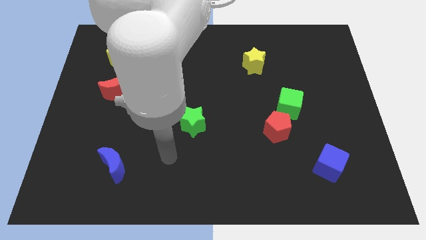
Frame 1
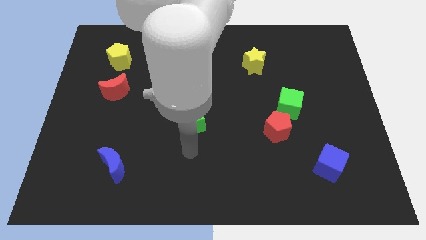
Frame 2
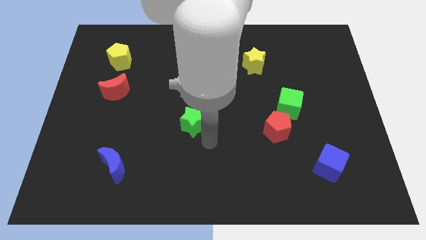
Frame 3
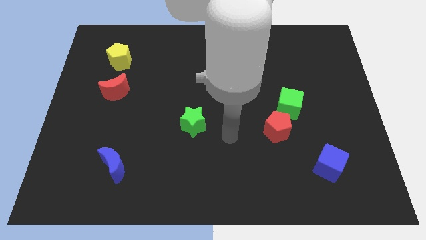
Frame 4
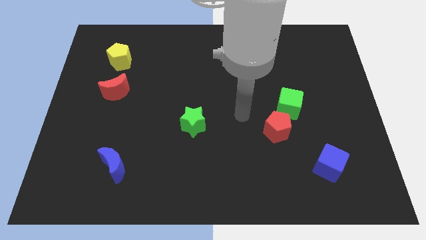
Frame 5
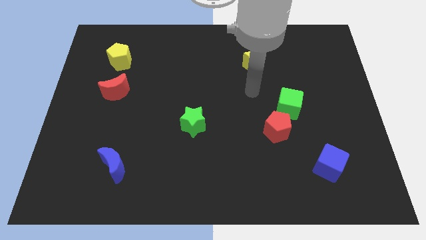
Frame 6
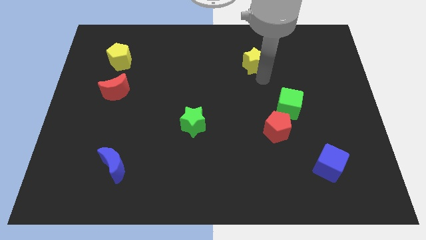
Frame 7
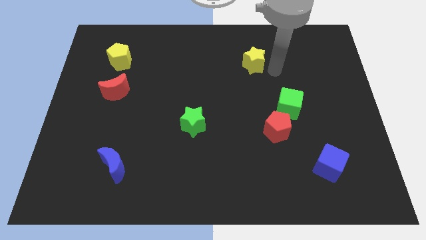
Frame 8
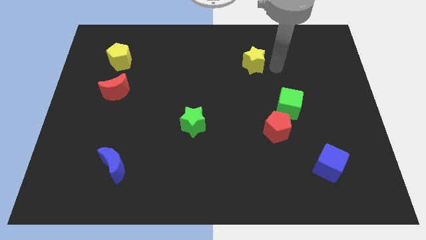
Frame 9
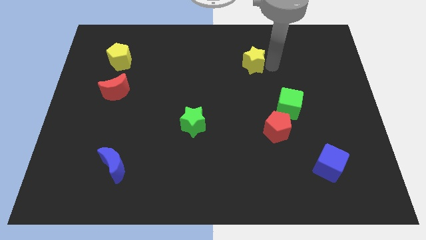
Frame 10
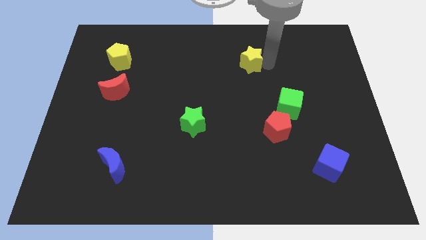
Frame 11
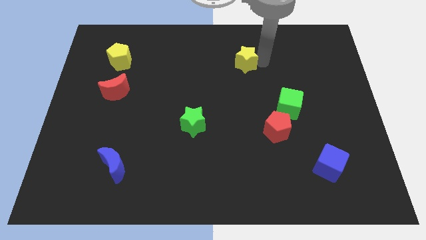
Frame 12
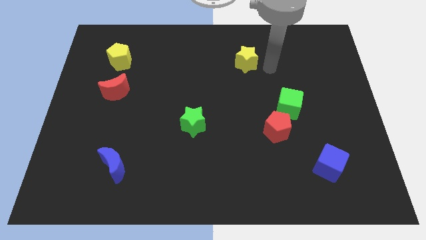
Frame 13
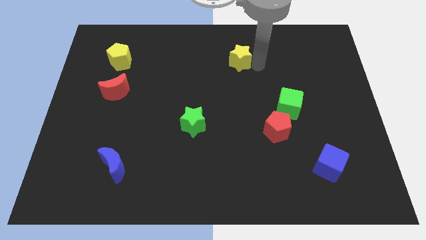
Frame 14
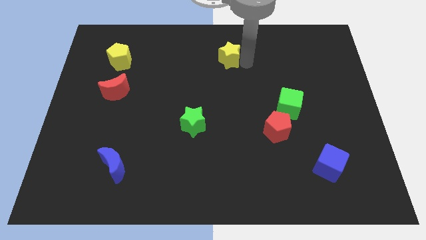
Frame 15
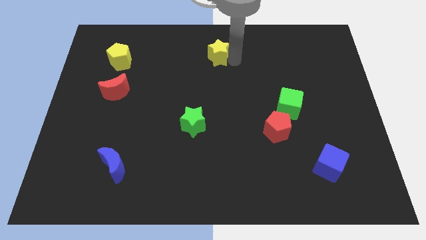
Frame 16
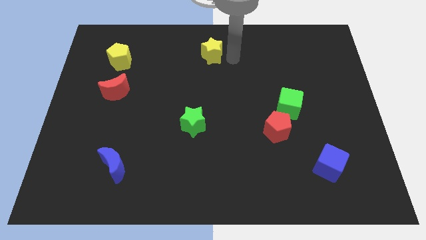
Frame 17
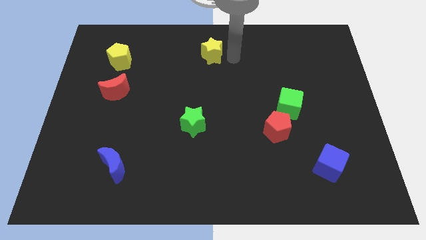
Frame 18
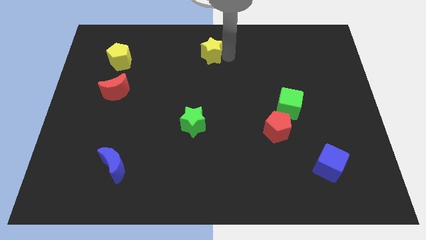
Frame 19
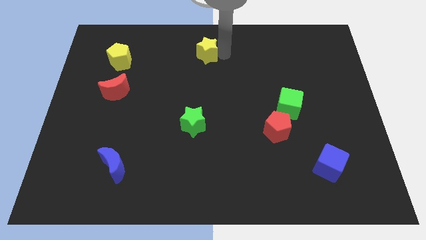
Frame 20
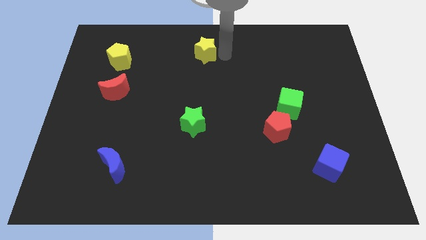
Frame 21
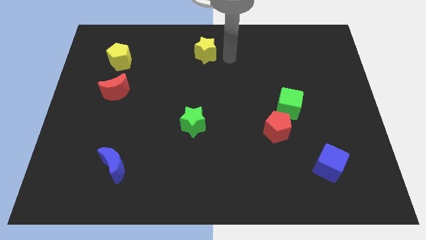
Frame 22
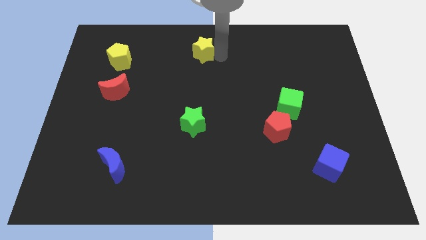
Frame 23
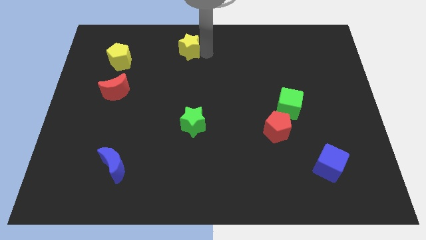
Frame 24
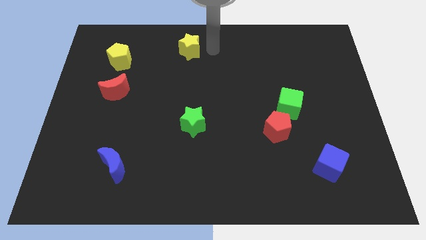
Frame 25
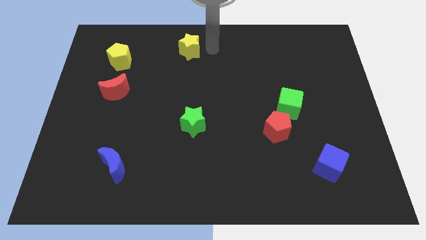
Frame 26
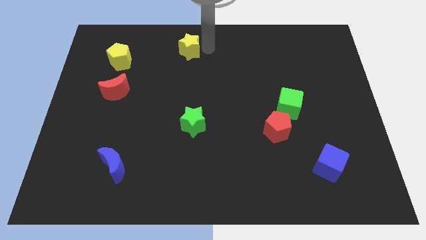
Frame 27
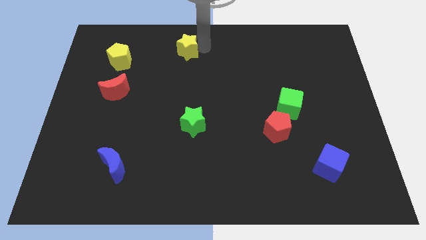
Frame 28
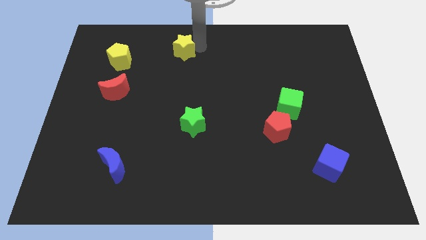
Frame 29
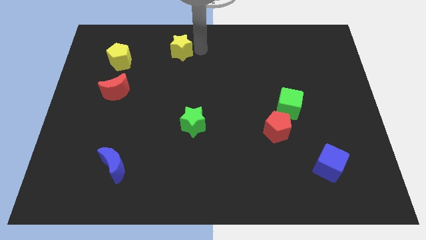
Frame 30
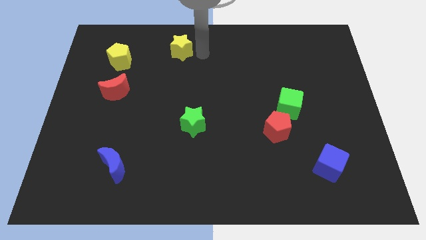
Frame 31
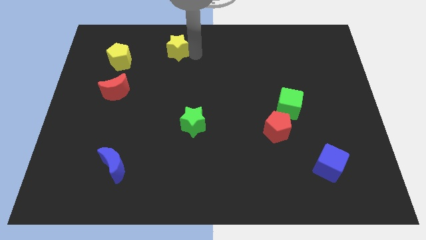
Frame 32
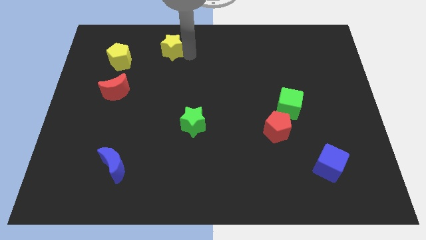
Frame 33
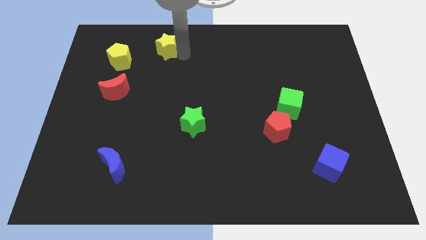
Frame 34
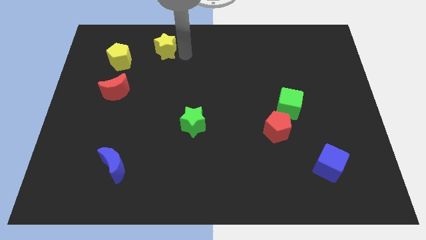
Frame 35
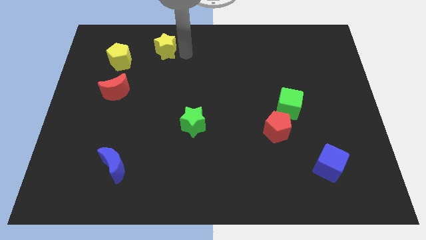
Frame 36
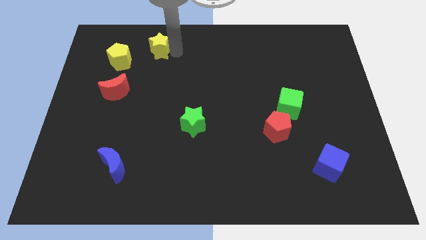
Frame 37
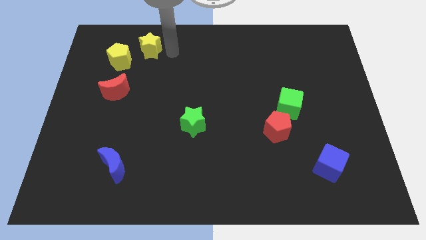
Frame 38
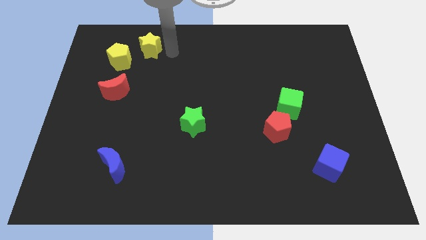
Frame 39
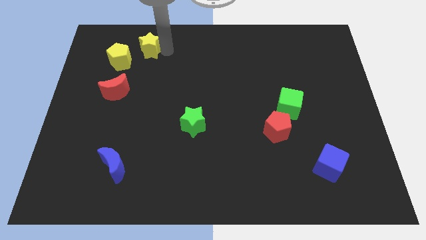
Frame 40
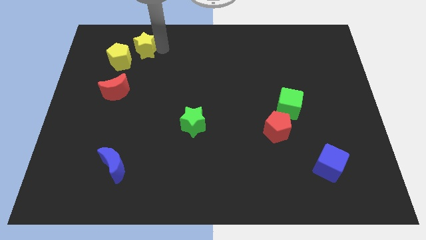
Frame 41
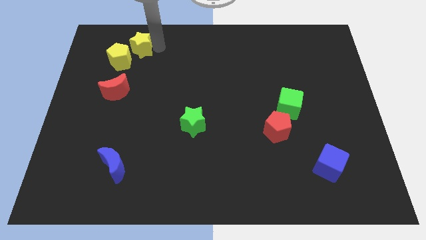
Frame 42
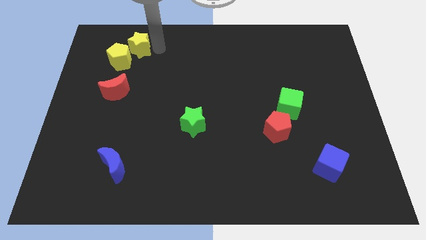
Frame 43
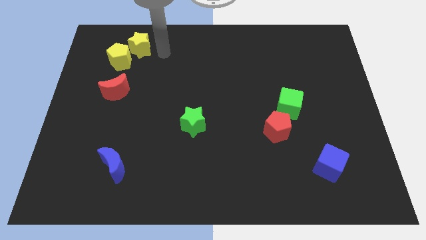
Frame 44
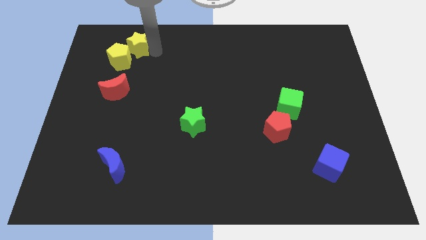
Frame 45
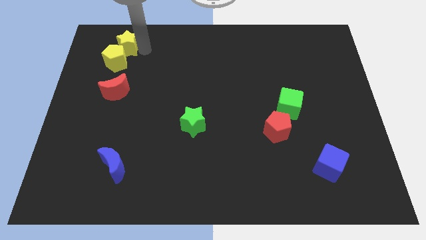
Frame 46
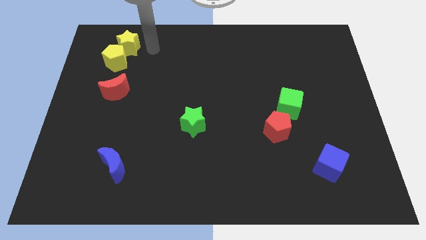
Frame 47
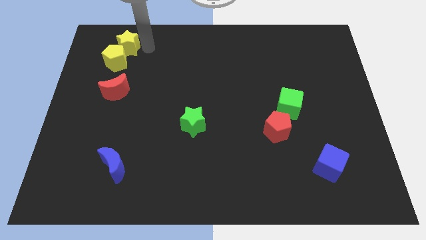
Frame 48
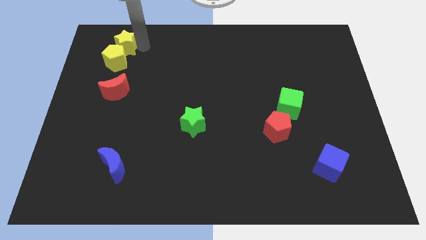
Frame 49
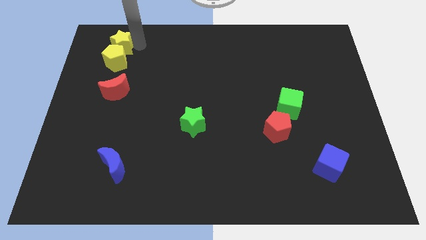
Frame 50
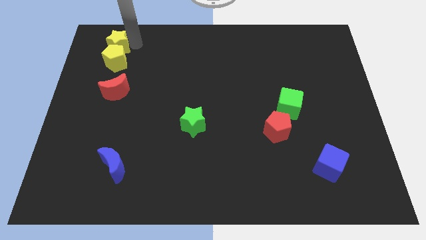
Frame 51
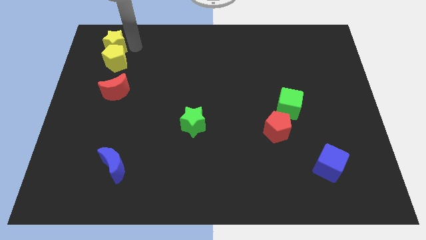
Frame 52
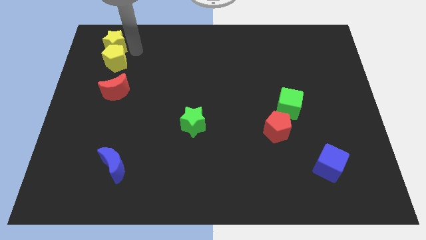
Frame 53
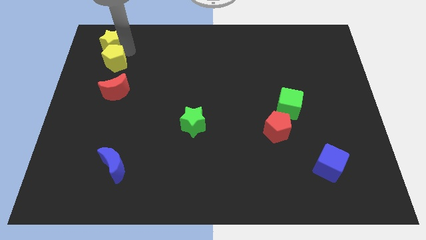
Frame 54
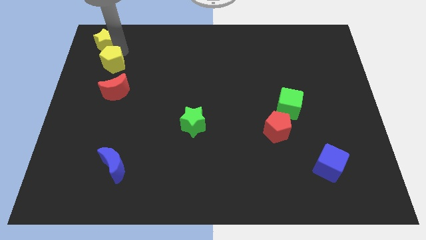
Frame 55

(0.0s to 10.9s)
push the yellow star to the top left corner

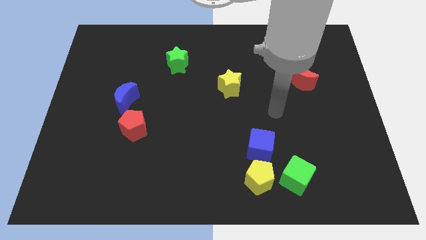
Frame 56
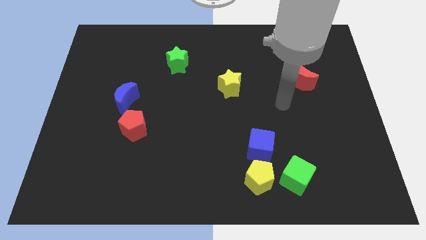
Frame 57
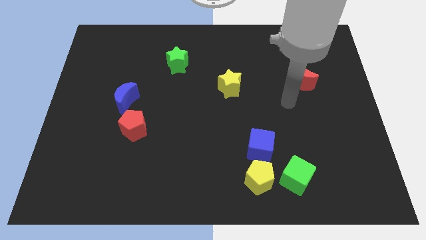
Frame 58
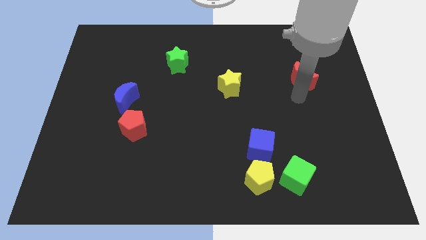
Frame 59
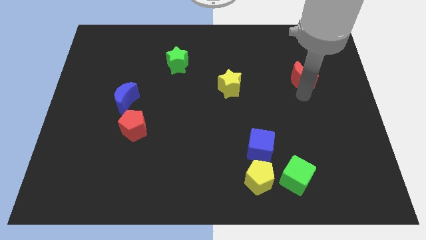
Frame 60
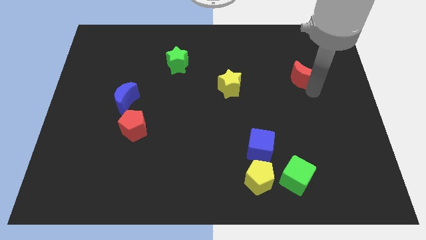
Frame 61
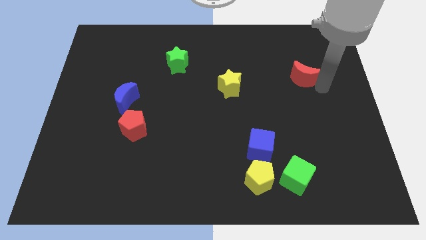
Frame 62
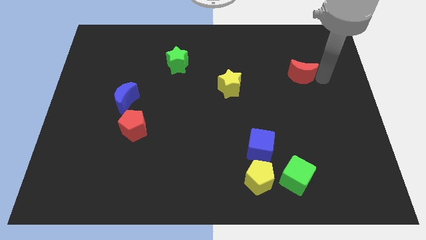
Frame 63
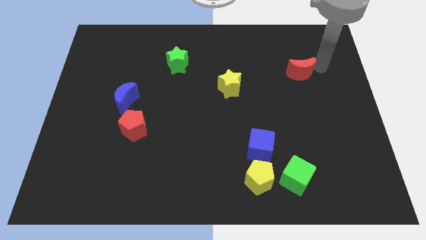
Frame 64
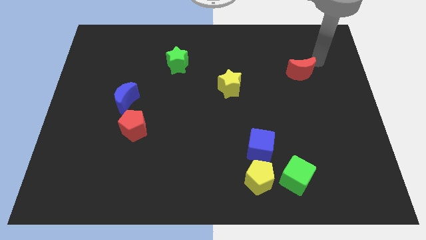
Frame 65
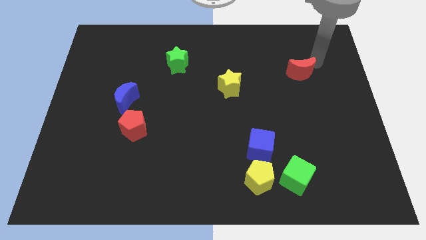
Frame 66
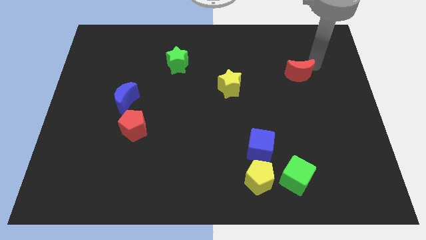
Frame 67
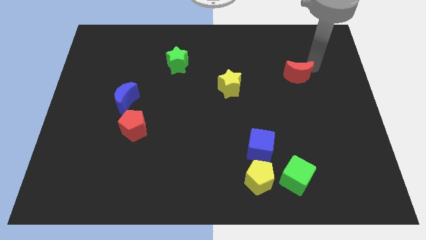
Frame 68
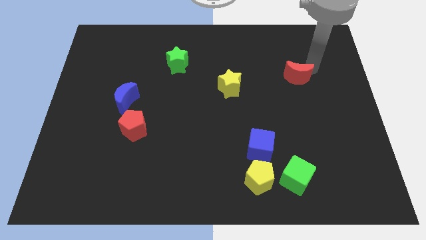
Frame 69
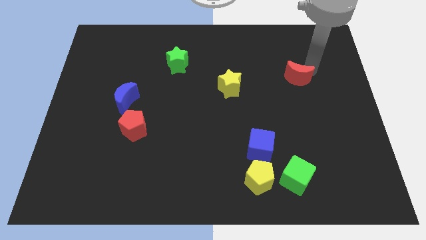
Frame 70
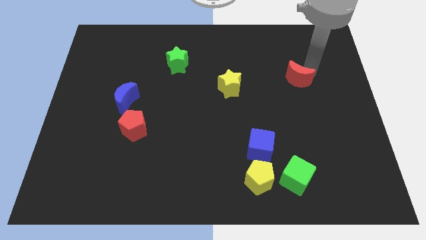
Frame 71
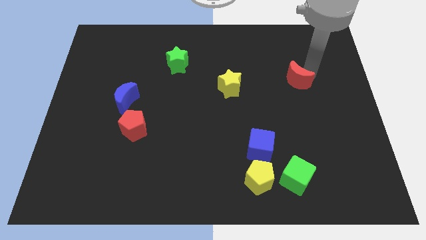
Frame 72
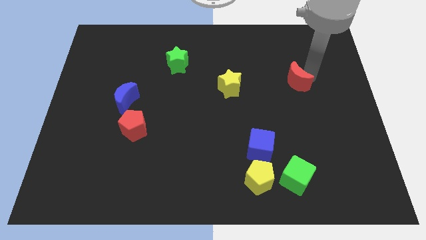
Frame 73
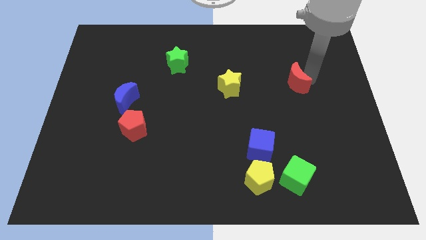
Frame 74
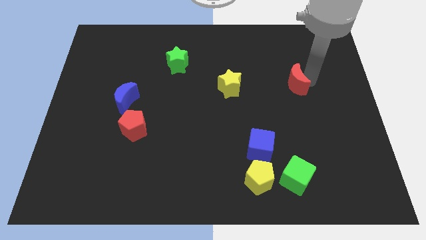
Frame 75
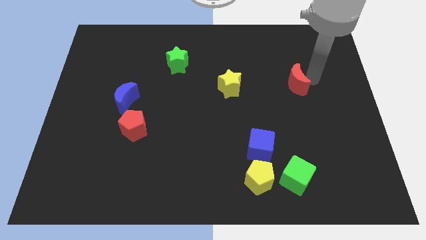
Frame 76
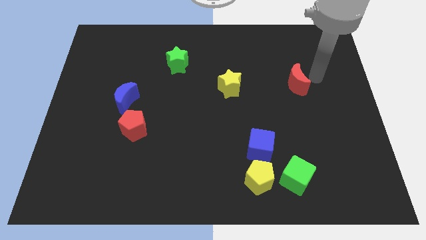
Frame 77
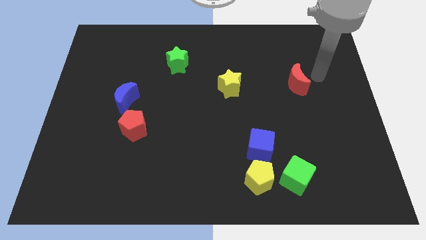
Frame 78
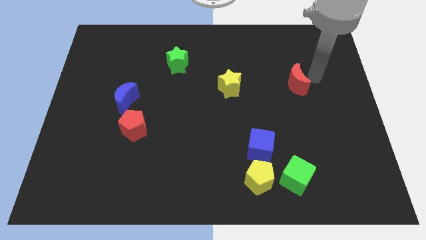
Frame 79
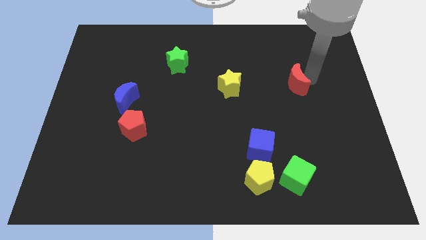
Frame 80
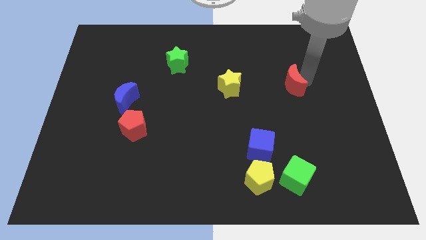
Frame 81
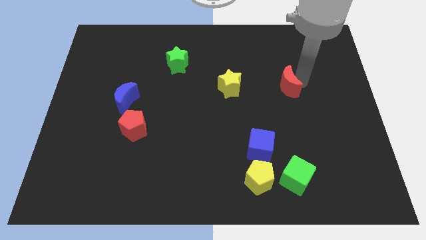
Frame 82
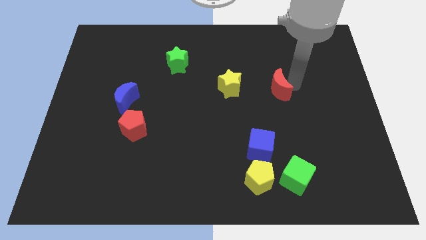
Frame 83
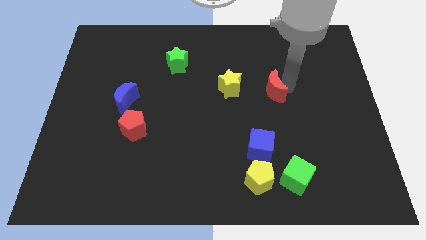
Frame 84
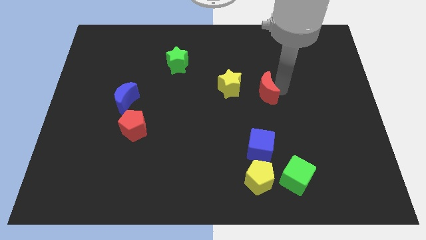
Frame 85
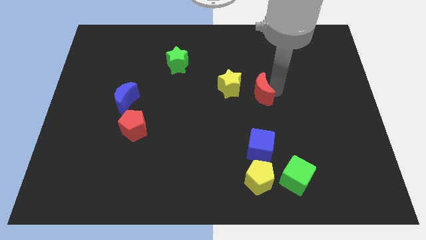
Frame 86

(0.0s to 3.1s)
move the red moon to the middle
